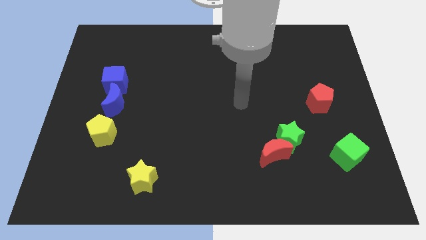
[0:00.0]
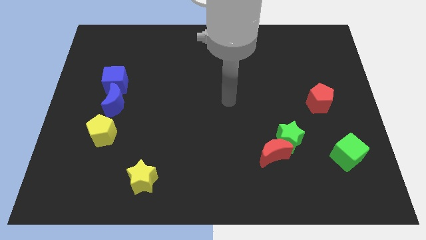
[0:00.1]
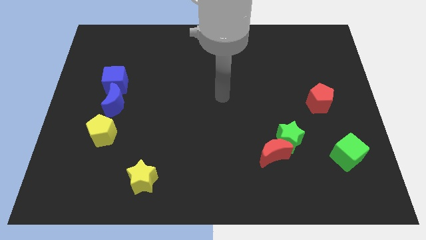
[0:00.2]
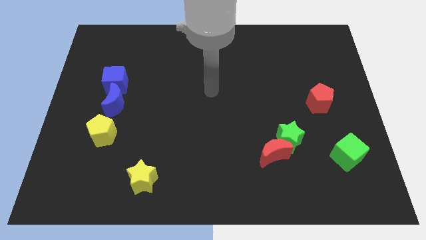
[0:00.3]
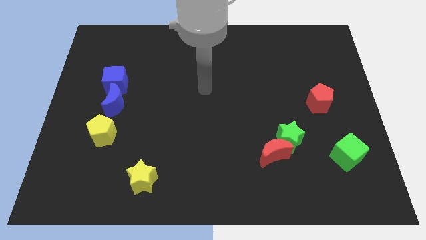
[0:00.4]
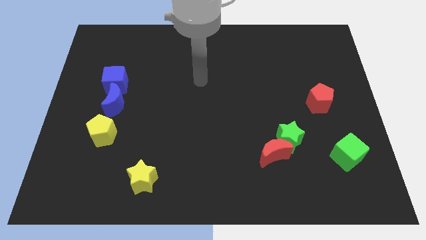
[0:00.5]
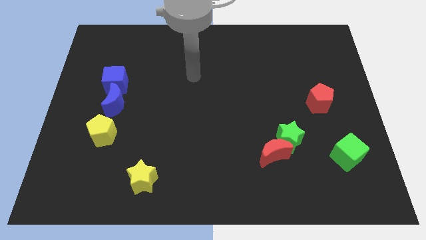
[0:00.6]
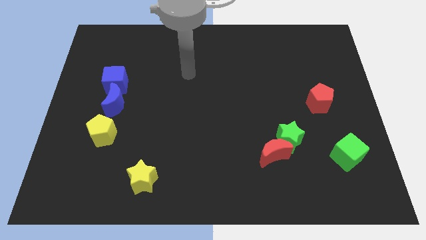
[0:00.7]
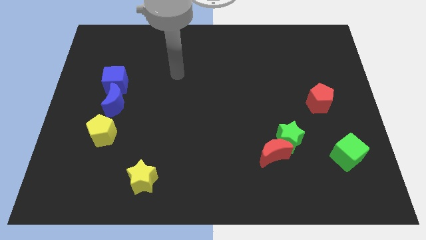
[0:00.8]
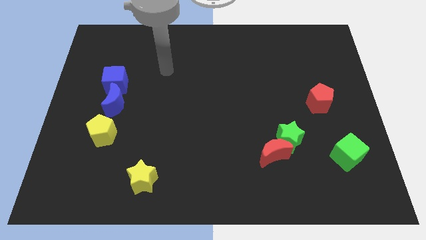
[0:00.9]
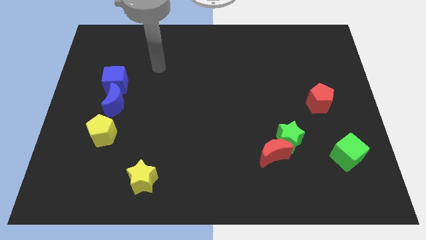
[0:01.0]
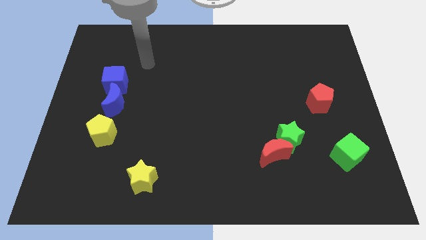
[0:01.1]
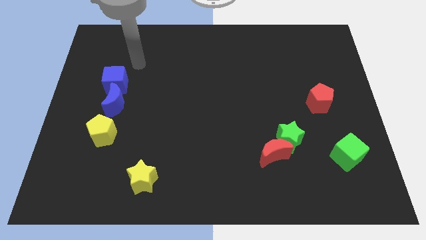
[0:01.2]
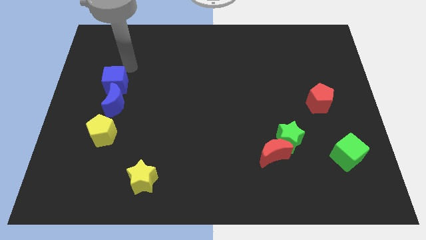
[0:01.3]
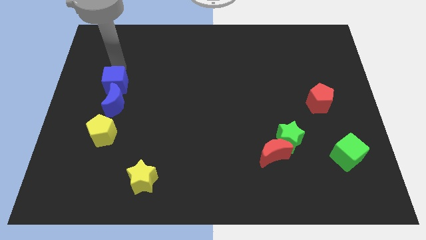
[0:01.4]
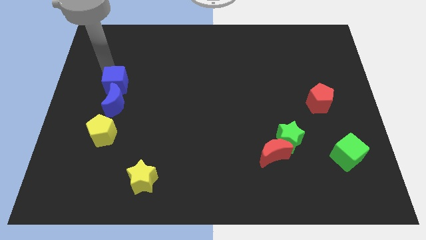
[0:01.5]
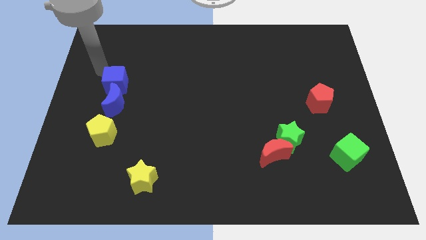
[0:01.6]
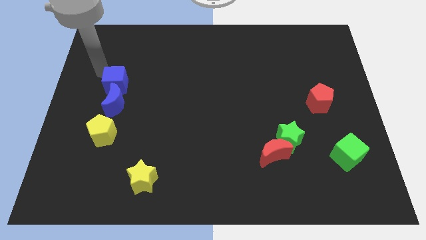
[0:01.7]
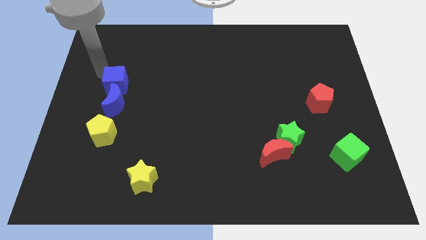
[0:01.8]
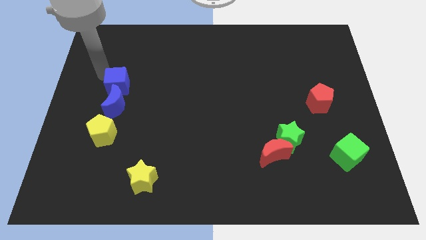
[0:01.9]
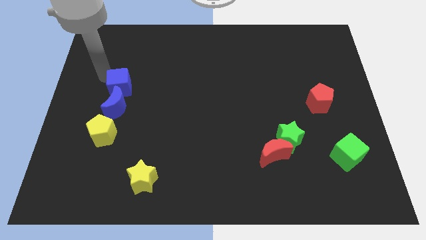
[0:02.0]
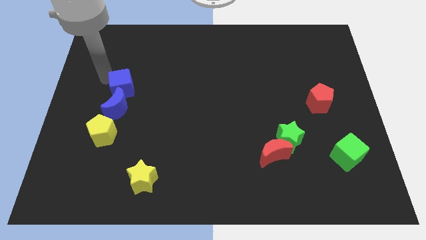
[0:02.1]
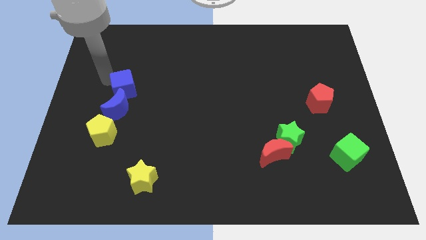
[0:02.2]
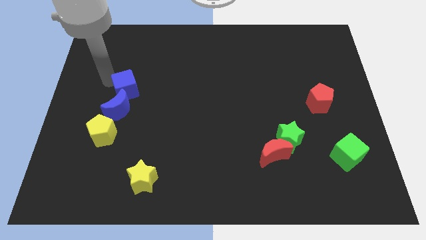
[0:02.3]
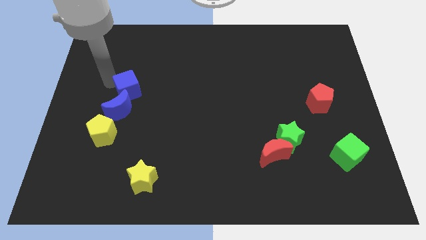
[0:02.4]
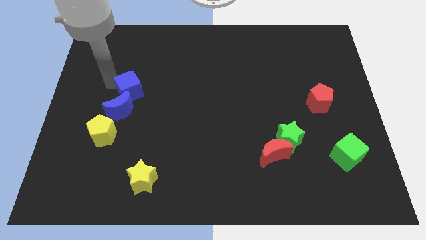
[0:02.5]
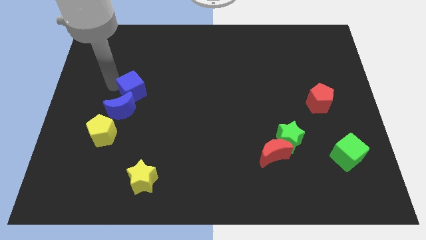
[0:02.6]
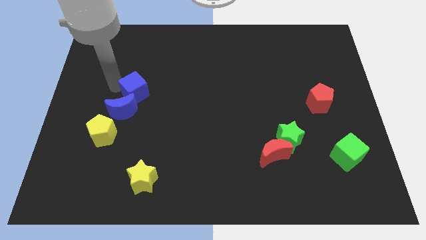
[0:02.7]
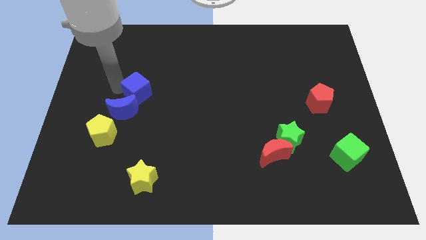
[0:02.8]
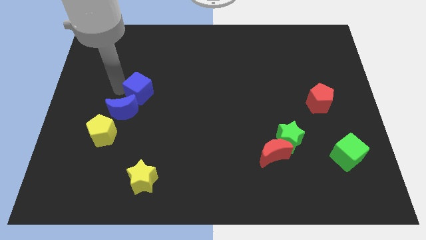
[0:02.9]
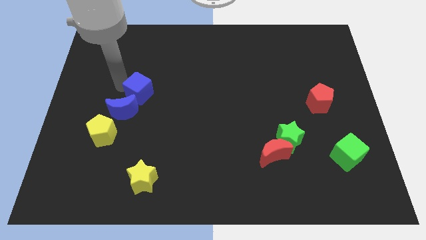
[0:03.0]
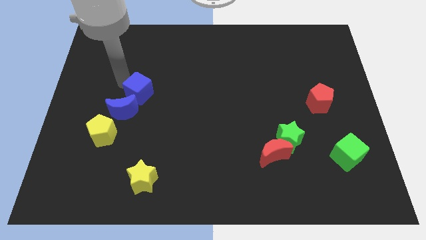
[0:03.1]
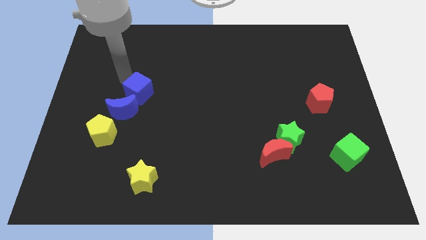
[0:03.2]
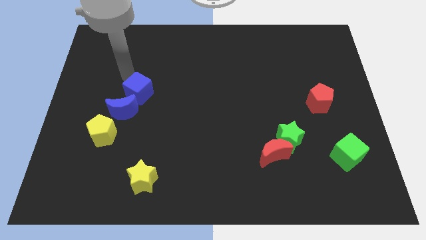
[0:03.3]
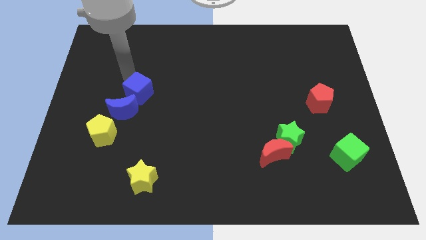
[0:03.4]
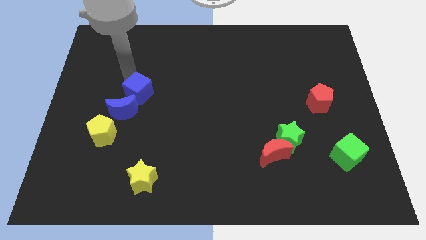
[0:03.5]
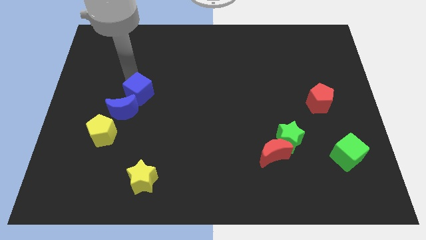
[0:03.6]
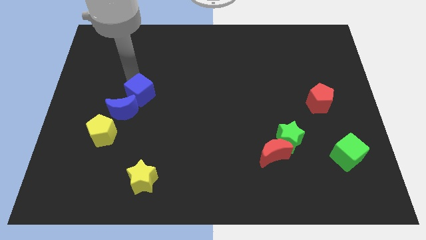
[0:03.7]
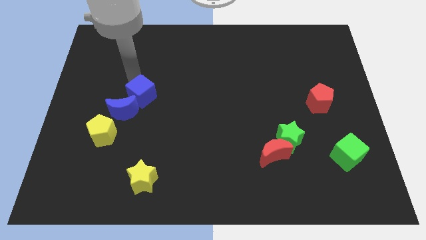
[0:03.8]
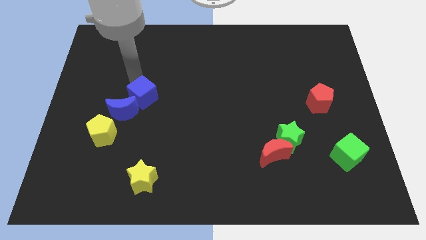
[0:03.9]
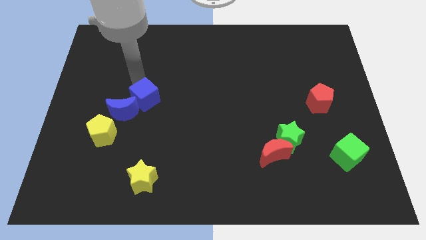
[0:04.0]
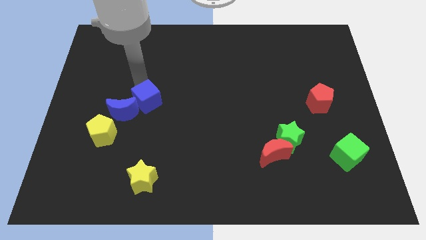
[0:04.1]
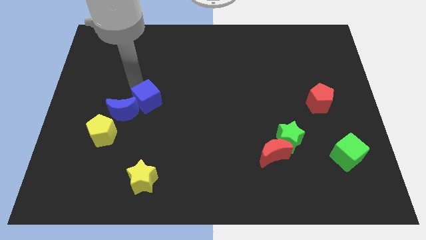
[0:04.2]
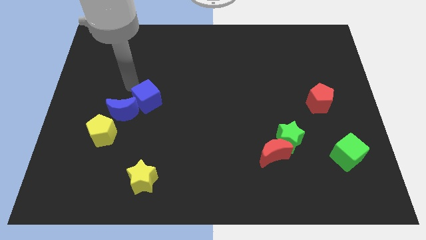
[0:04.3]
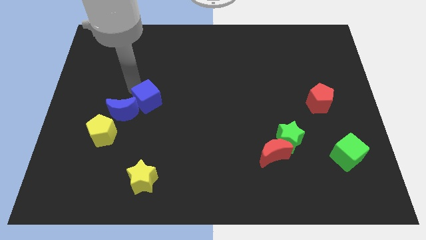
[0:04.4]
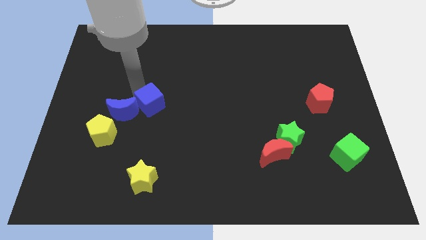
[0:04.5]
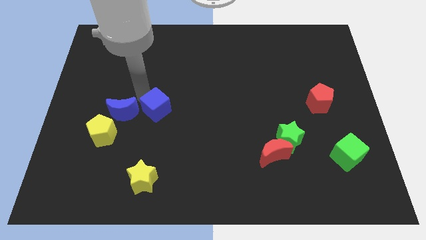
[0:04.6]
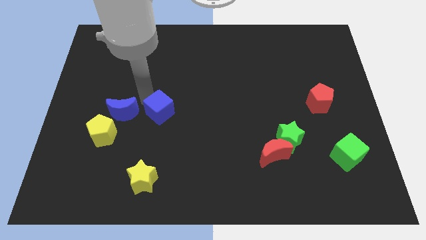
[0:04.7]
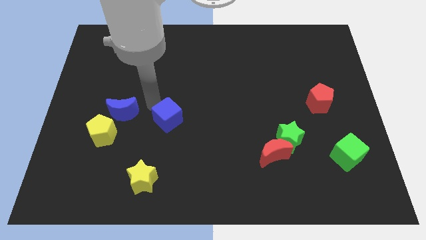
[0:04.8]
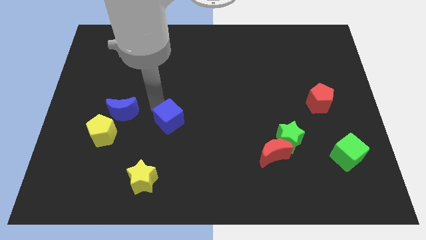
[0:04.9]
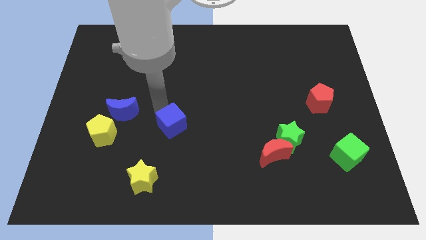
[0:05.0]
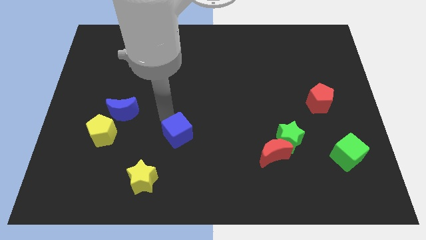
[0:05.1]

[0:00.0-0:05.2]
move the blue cube downwards and right diagonally

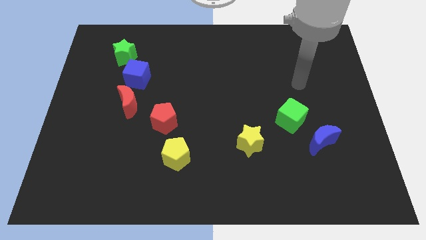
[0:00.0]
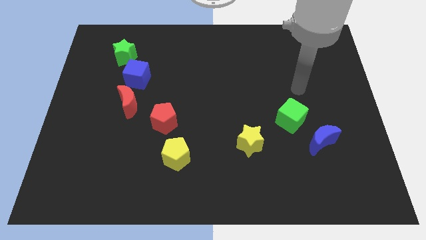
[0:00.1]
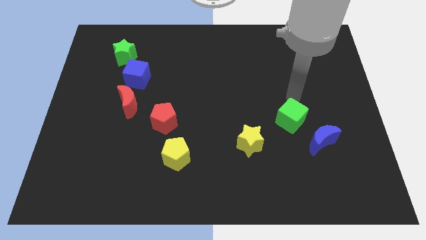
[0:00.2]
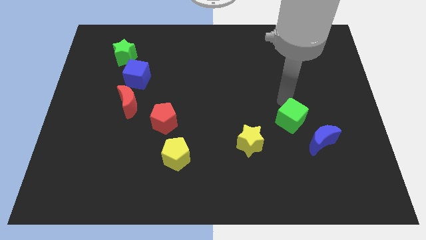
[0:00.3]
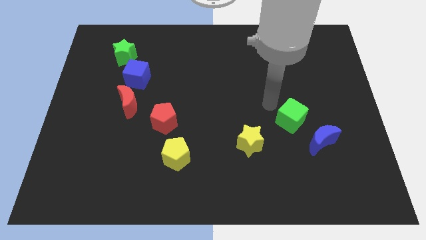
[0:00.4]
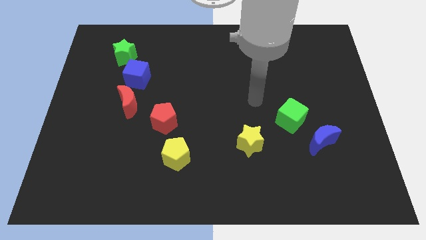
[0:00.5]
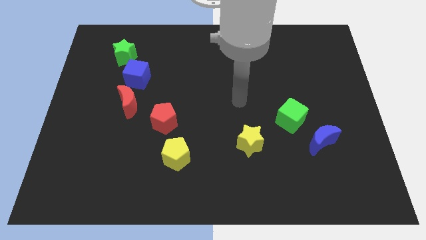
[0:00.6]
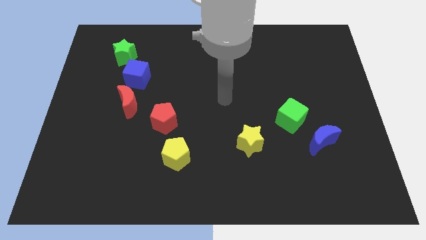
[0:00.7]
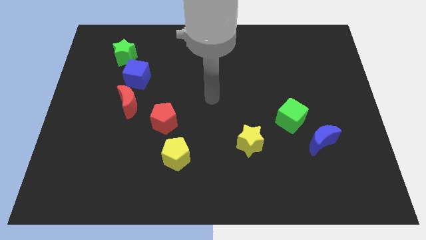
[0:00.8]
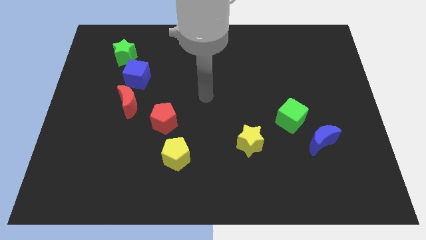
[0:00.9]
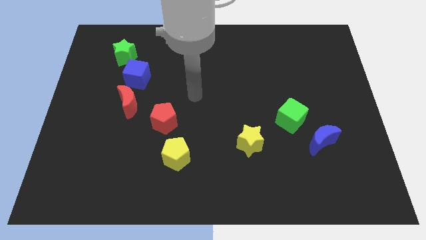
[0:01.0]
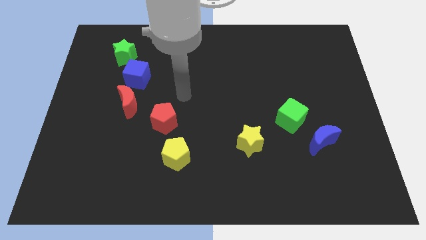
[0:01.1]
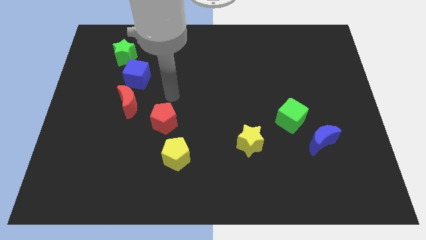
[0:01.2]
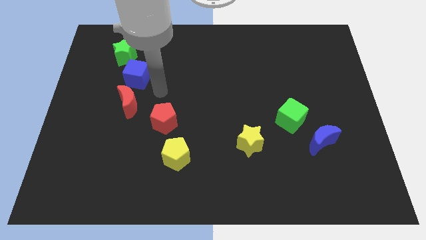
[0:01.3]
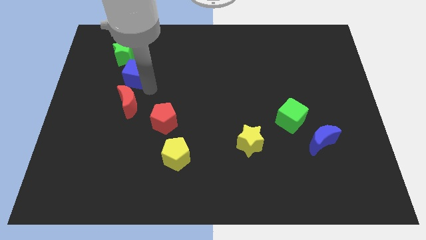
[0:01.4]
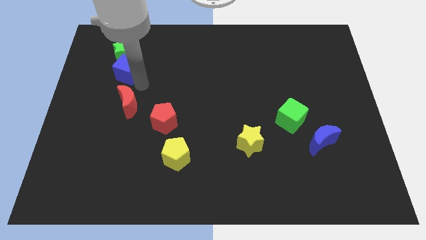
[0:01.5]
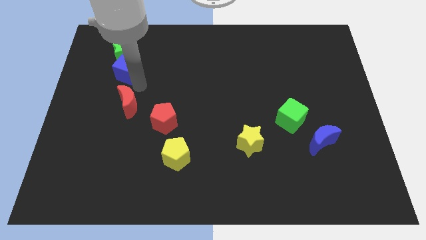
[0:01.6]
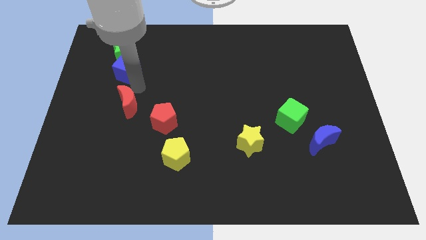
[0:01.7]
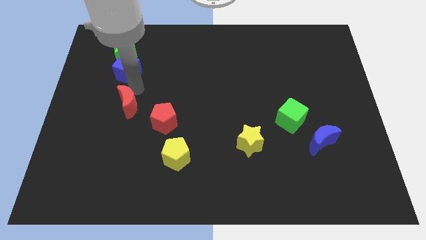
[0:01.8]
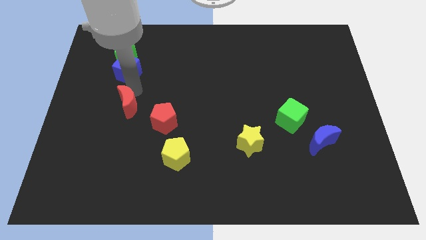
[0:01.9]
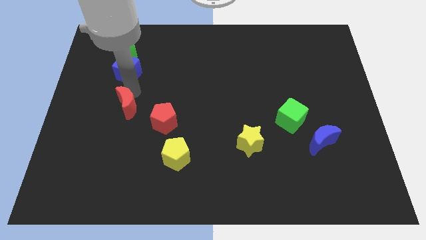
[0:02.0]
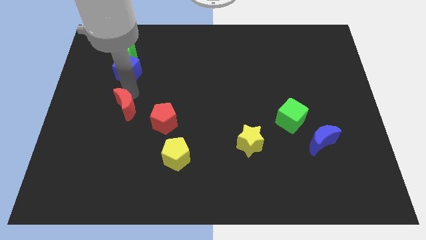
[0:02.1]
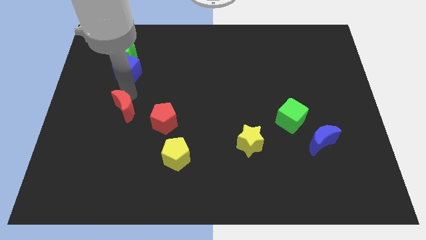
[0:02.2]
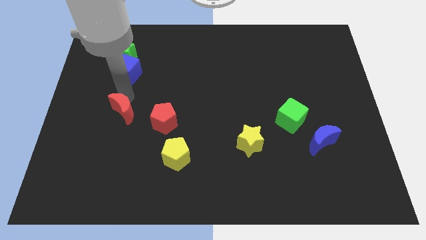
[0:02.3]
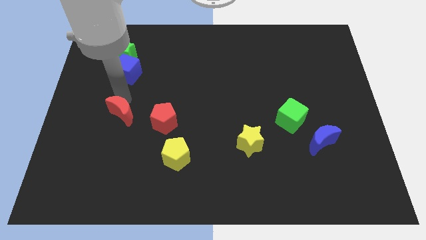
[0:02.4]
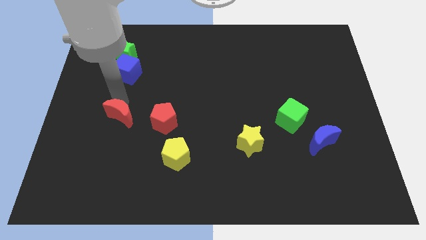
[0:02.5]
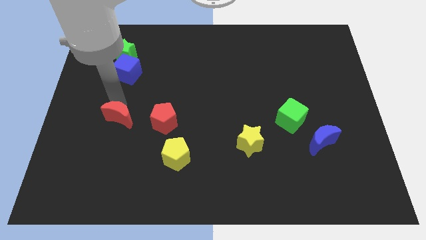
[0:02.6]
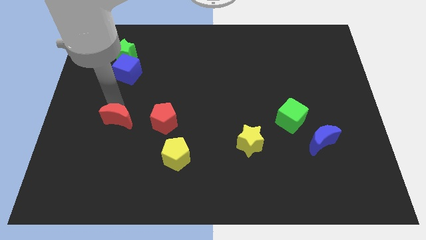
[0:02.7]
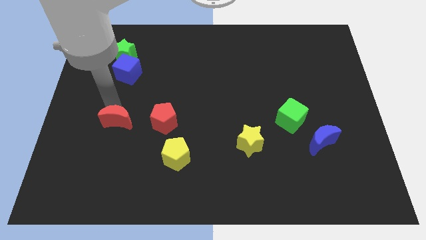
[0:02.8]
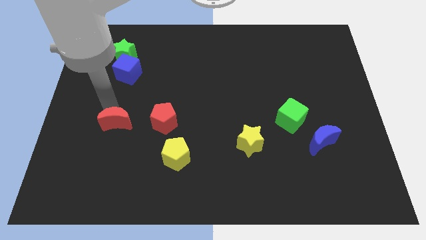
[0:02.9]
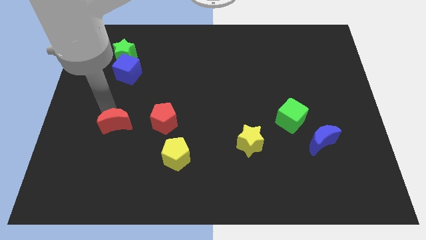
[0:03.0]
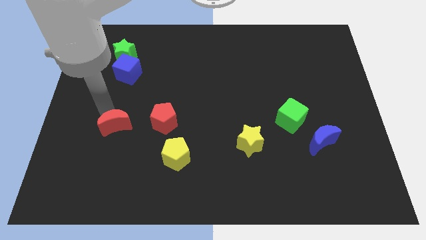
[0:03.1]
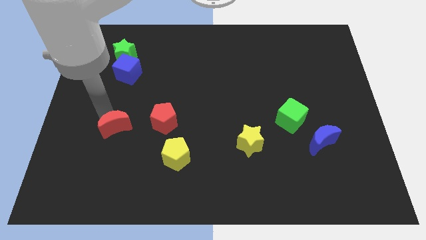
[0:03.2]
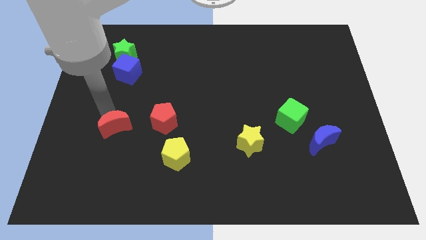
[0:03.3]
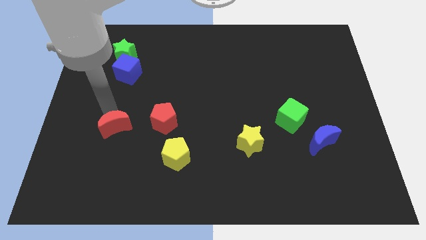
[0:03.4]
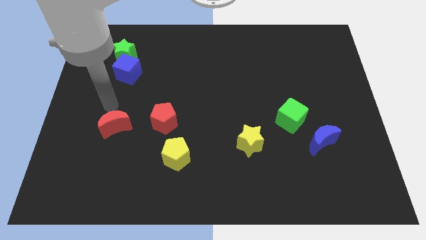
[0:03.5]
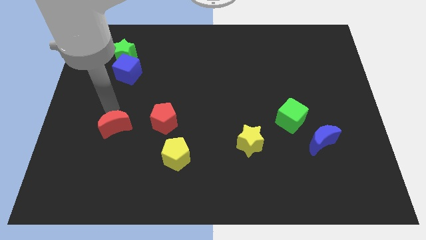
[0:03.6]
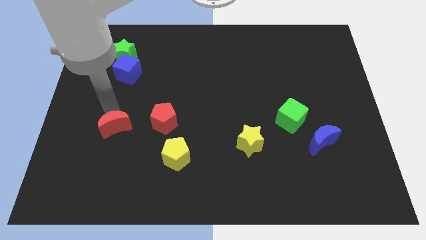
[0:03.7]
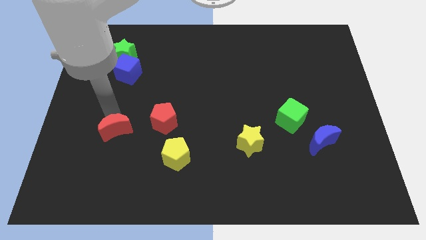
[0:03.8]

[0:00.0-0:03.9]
slide the red moon down a little bit
